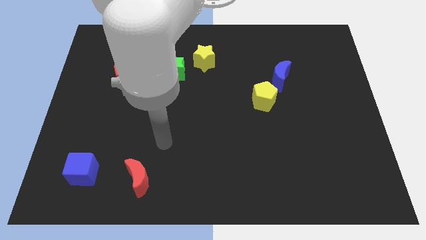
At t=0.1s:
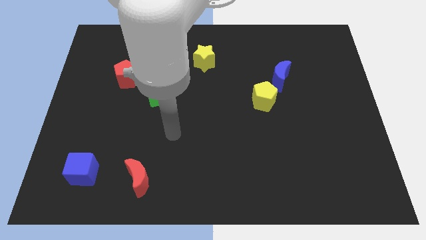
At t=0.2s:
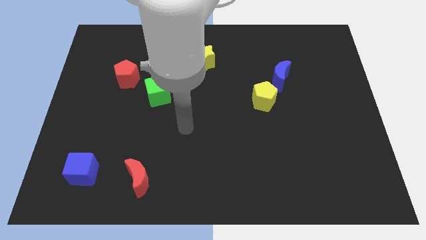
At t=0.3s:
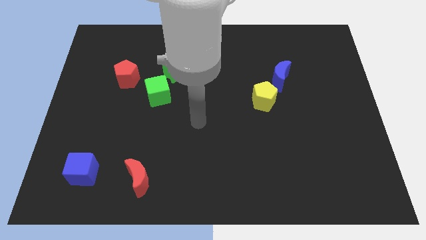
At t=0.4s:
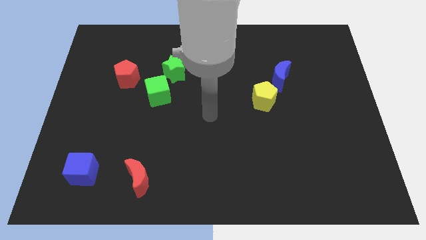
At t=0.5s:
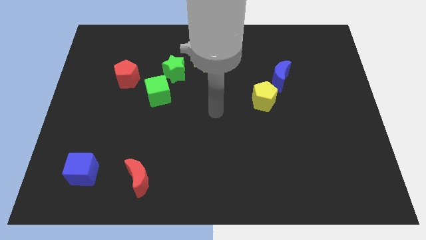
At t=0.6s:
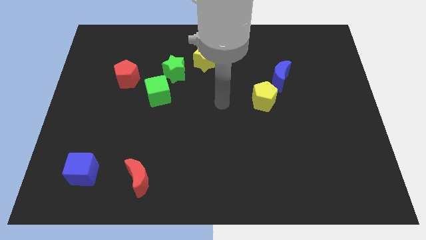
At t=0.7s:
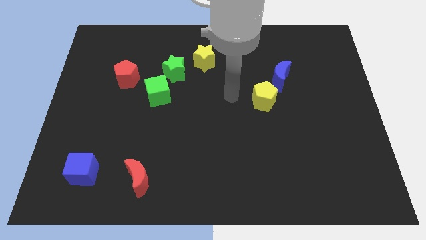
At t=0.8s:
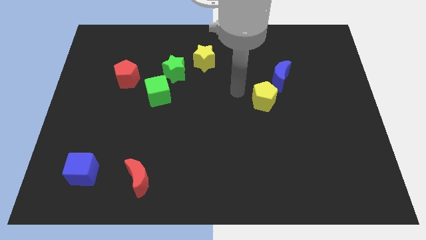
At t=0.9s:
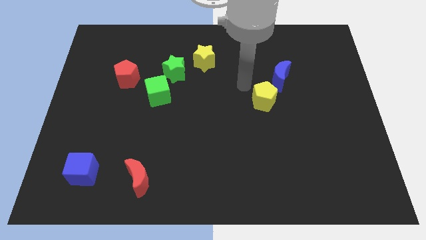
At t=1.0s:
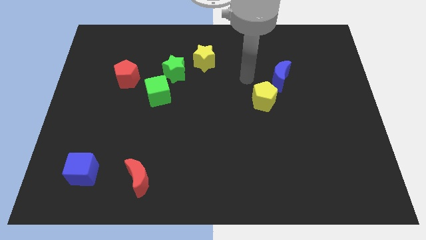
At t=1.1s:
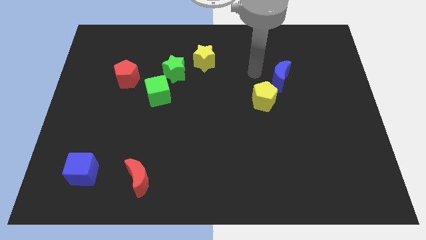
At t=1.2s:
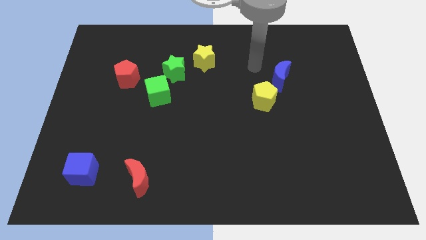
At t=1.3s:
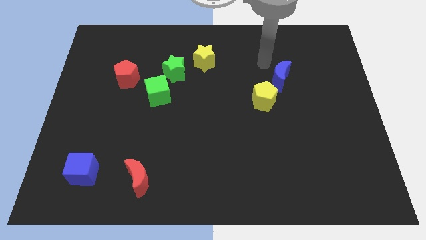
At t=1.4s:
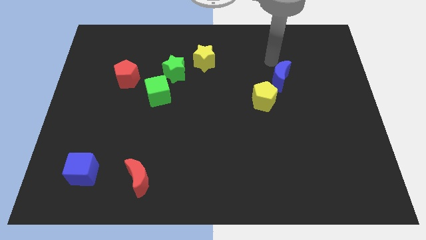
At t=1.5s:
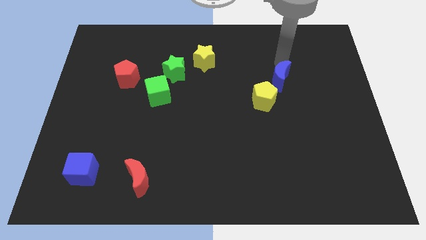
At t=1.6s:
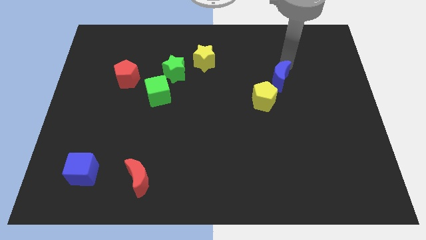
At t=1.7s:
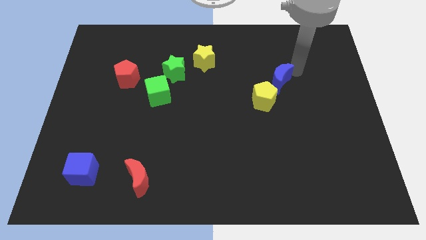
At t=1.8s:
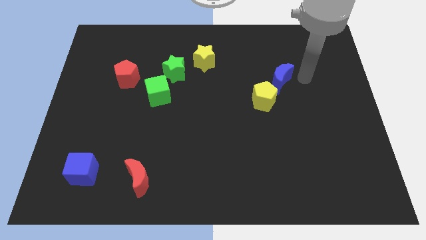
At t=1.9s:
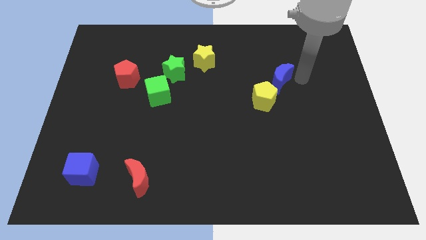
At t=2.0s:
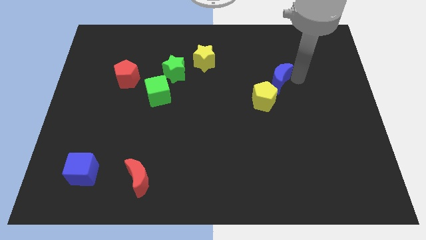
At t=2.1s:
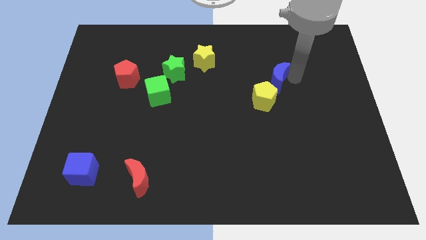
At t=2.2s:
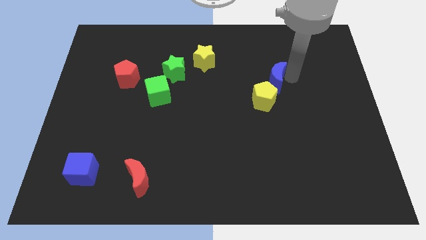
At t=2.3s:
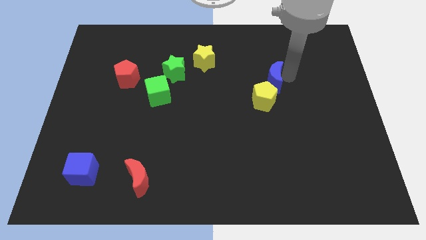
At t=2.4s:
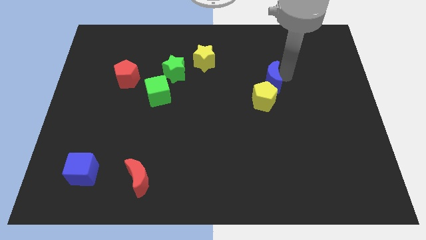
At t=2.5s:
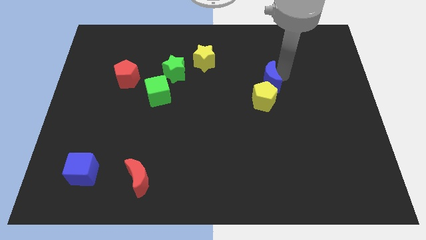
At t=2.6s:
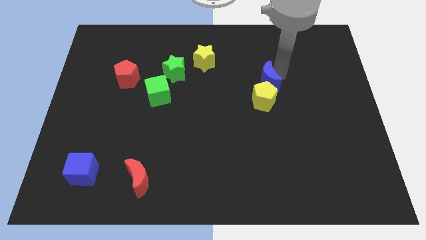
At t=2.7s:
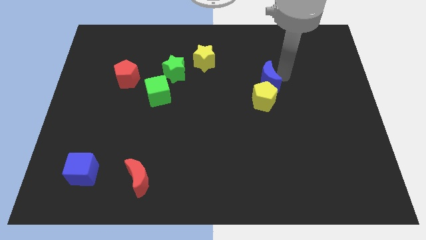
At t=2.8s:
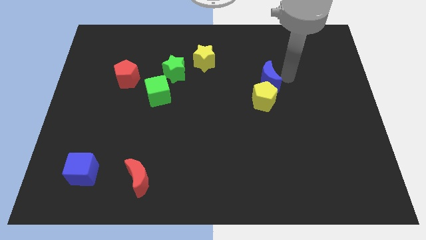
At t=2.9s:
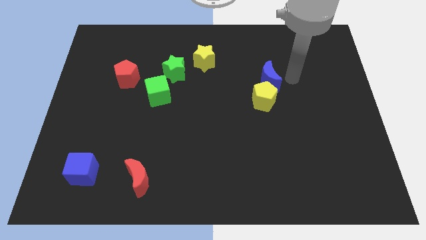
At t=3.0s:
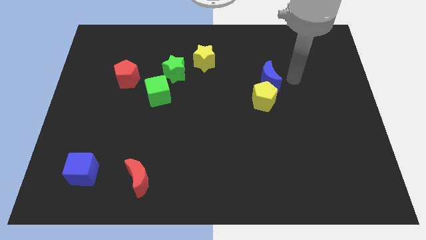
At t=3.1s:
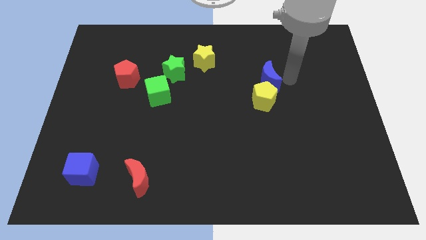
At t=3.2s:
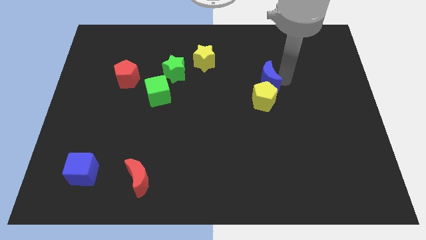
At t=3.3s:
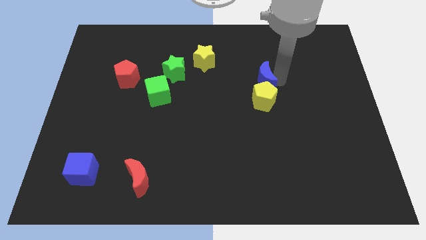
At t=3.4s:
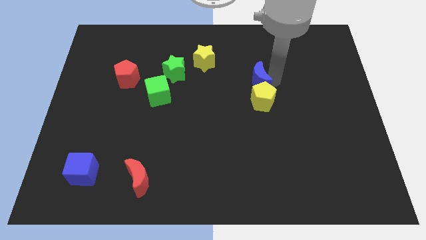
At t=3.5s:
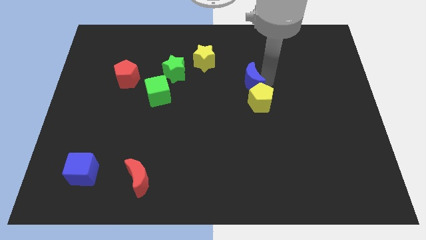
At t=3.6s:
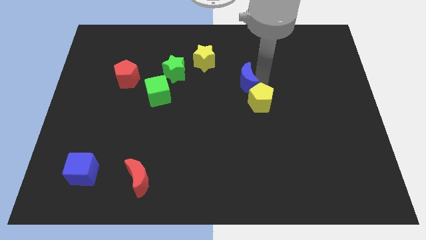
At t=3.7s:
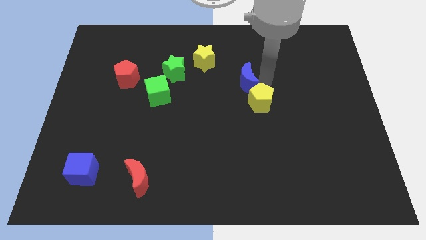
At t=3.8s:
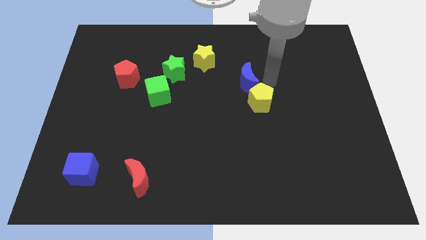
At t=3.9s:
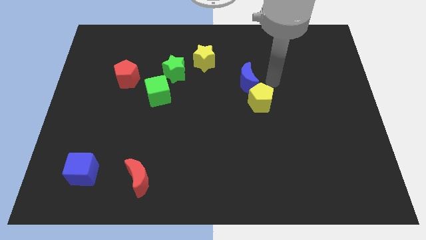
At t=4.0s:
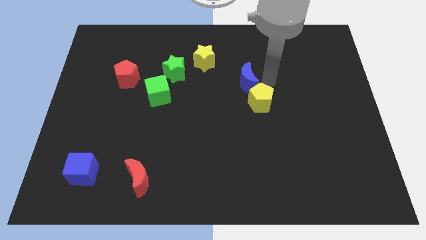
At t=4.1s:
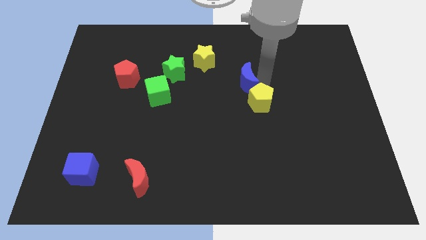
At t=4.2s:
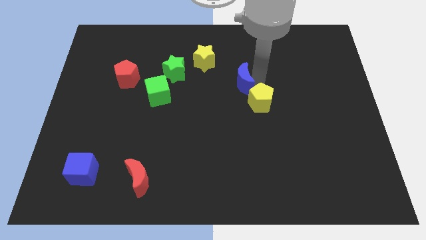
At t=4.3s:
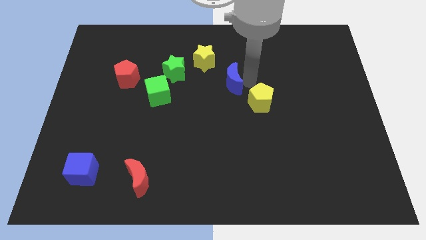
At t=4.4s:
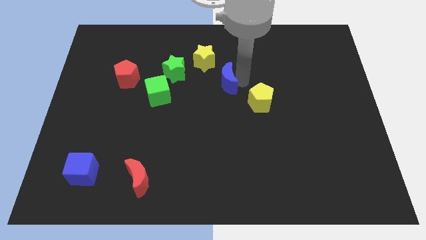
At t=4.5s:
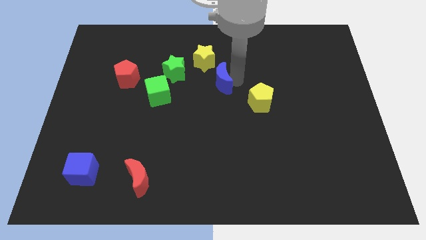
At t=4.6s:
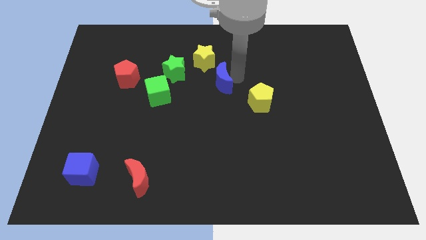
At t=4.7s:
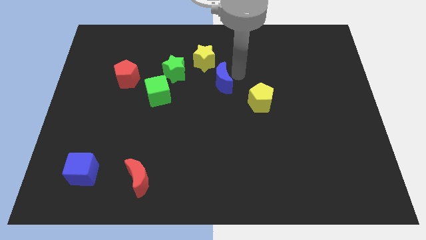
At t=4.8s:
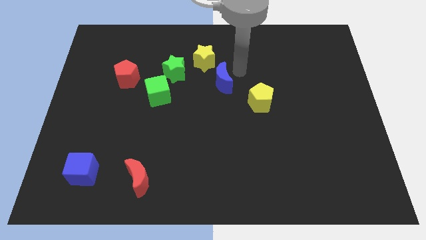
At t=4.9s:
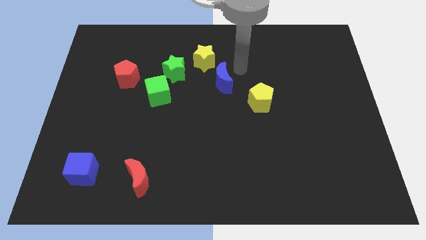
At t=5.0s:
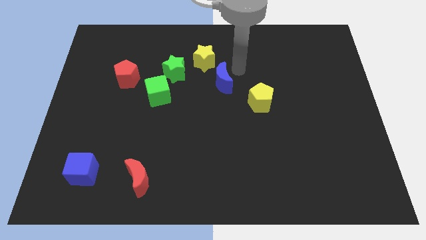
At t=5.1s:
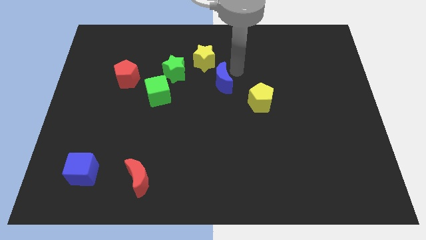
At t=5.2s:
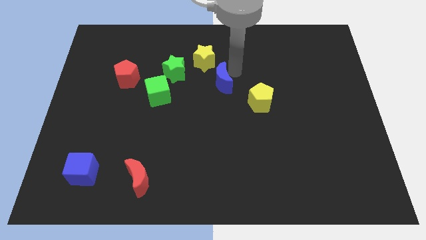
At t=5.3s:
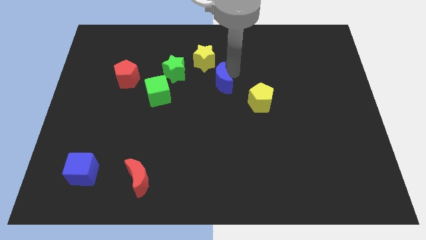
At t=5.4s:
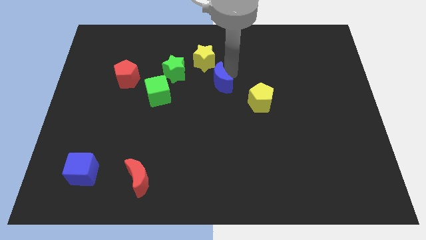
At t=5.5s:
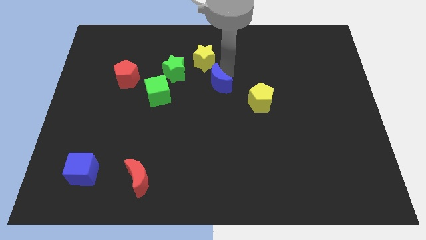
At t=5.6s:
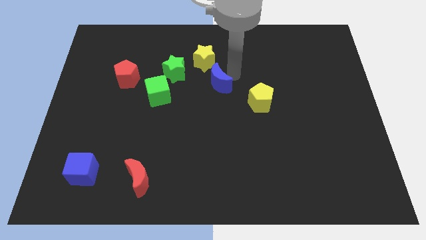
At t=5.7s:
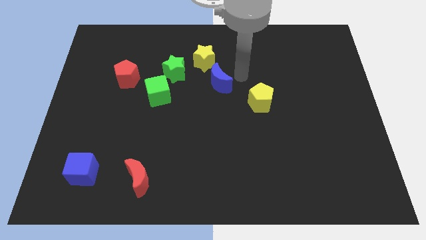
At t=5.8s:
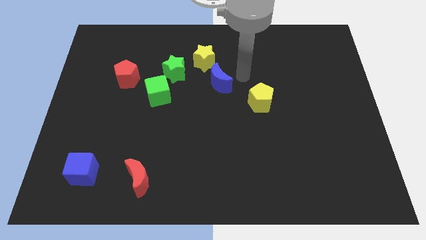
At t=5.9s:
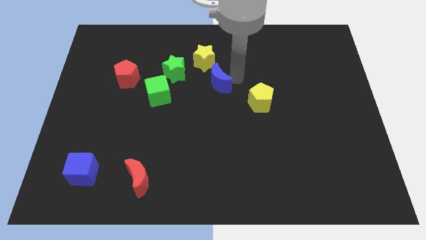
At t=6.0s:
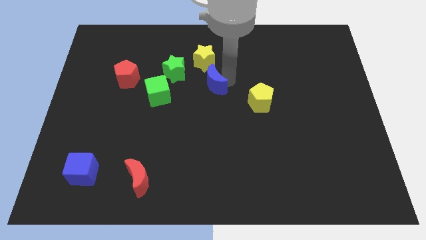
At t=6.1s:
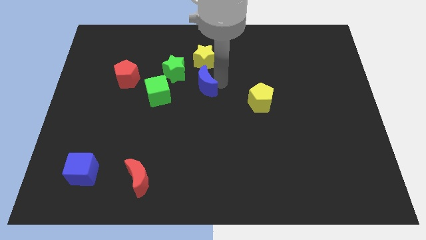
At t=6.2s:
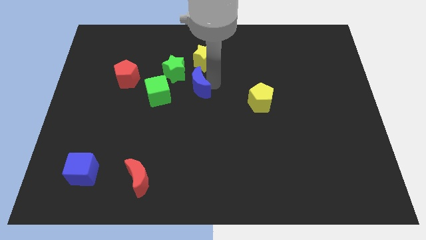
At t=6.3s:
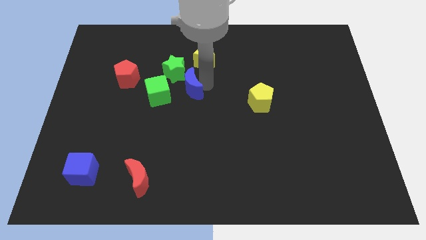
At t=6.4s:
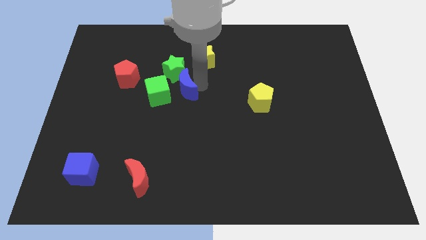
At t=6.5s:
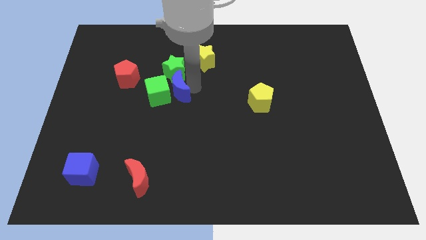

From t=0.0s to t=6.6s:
move the blue moon next to the green cube
